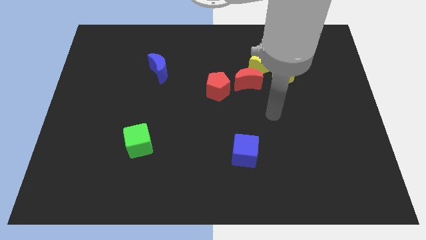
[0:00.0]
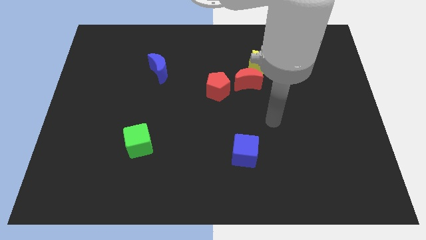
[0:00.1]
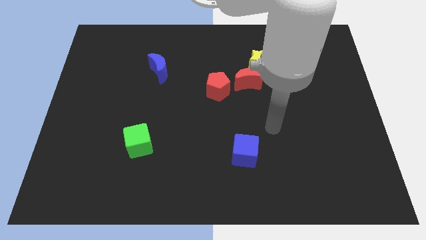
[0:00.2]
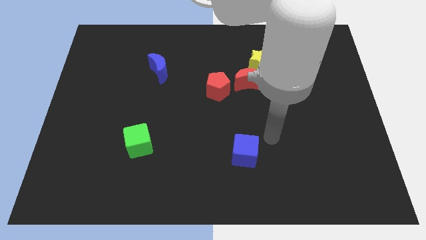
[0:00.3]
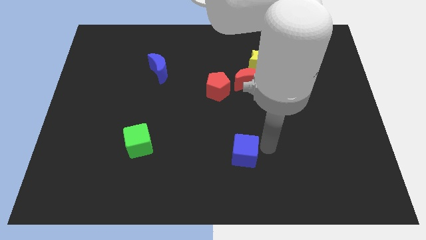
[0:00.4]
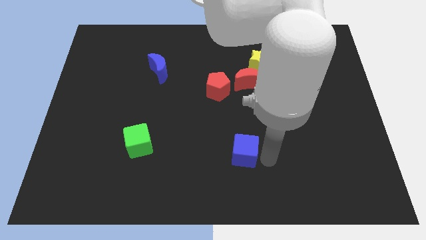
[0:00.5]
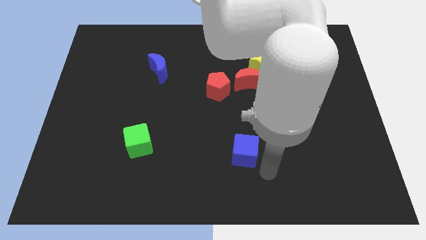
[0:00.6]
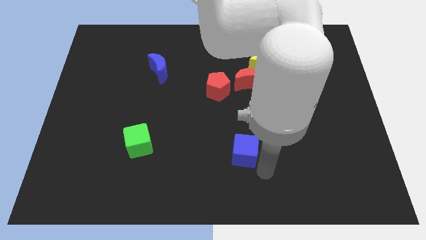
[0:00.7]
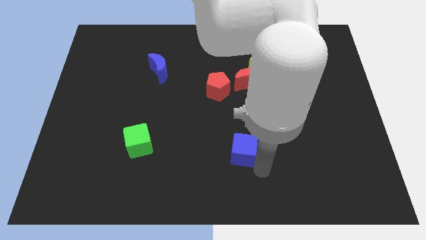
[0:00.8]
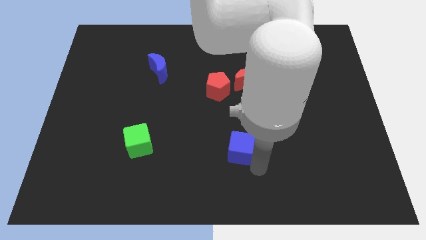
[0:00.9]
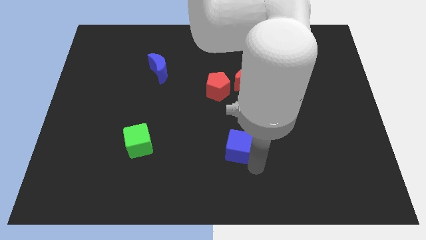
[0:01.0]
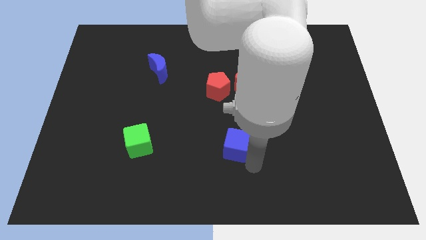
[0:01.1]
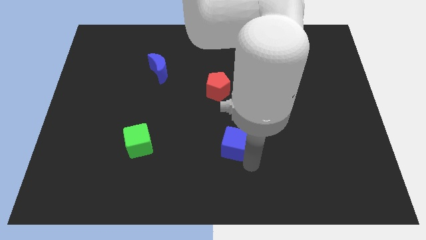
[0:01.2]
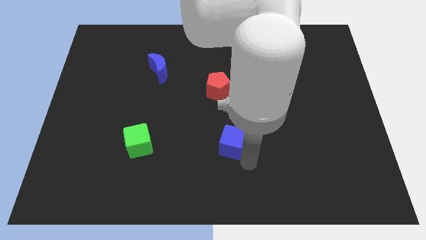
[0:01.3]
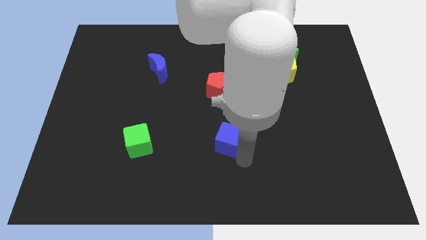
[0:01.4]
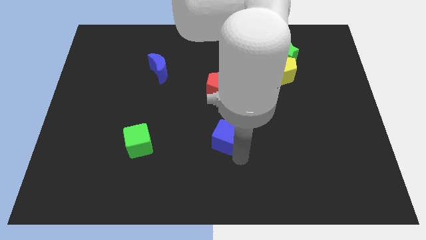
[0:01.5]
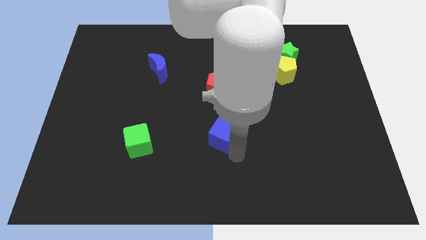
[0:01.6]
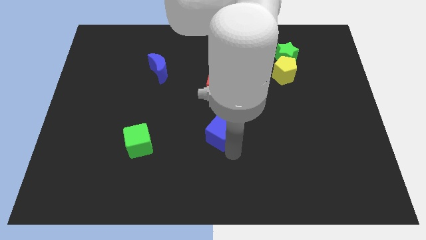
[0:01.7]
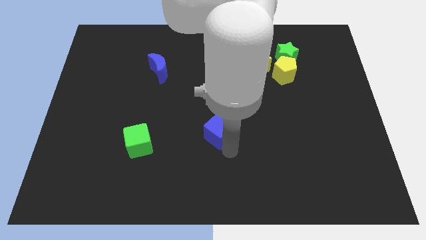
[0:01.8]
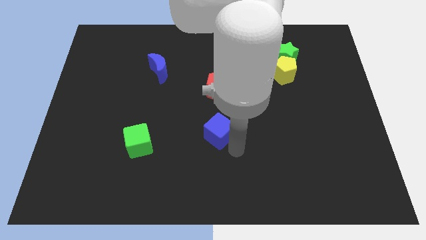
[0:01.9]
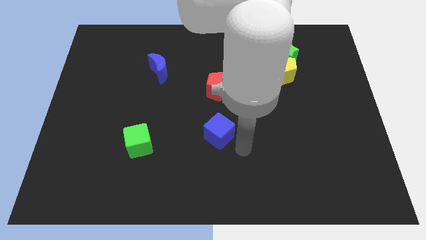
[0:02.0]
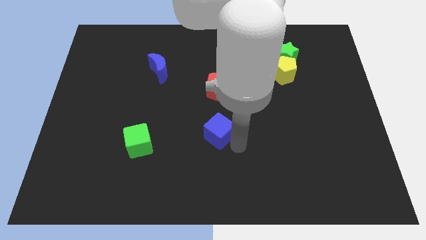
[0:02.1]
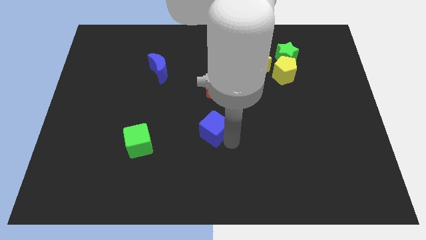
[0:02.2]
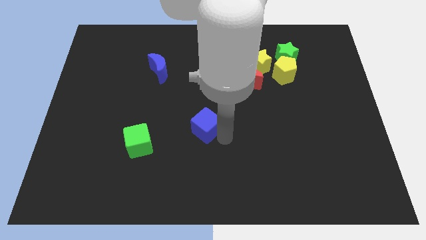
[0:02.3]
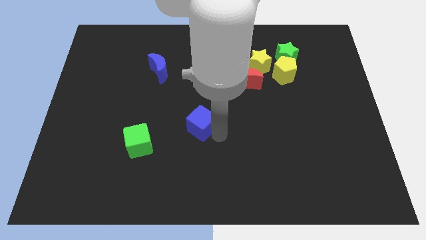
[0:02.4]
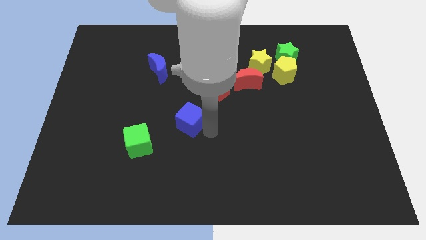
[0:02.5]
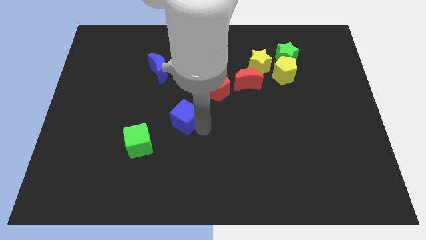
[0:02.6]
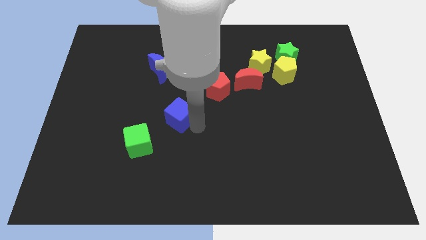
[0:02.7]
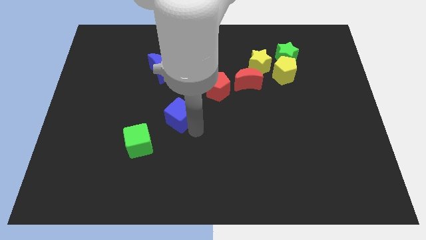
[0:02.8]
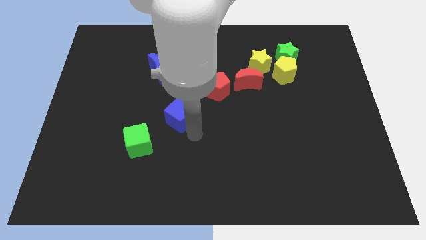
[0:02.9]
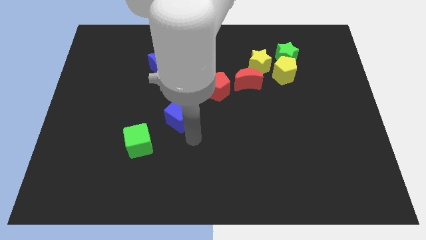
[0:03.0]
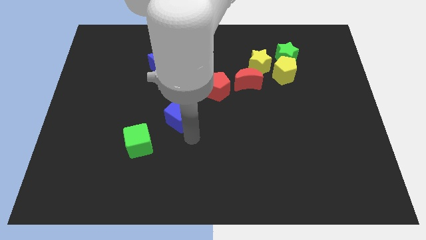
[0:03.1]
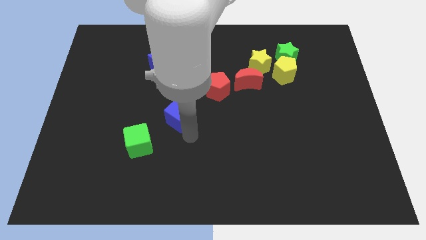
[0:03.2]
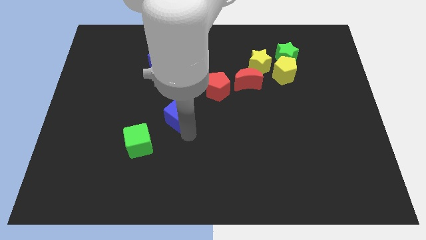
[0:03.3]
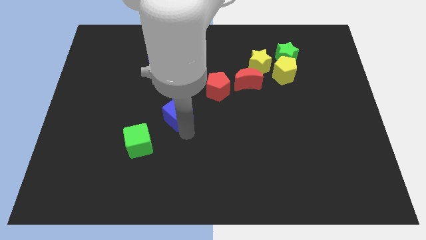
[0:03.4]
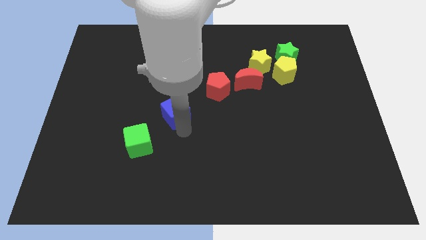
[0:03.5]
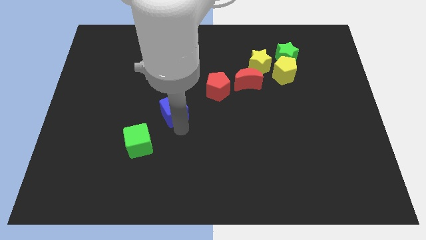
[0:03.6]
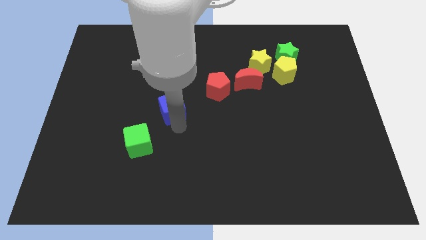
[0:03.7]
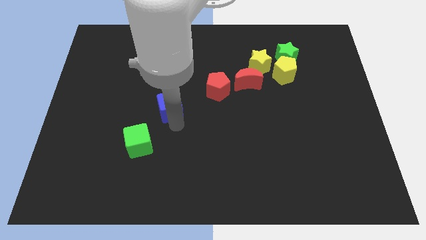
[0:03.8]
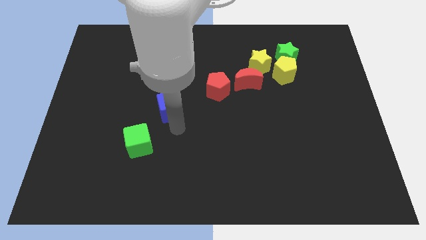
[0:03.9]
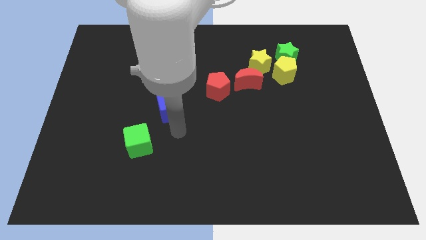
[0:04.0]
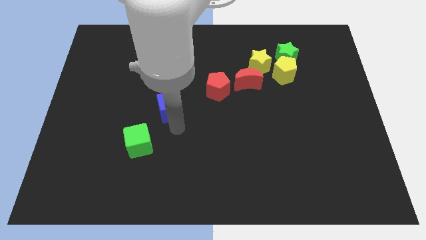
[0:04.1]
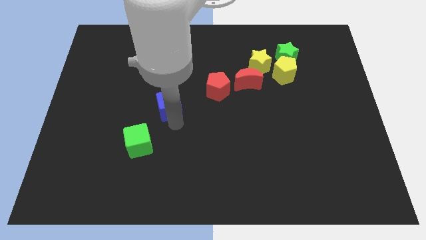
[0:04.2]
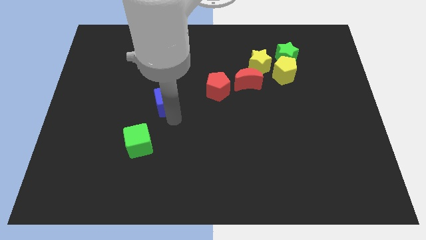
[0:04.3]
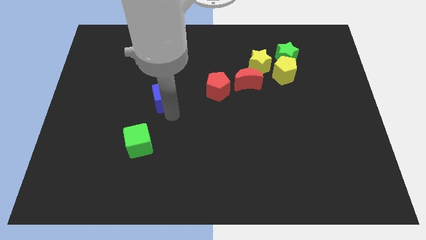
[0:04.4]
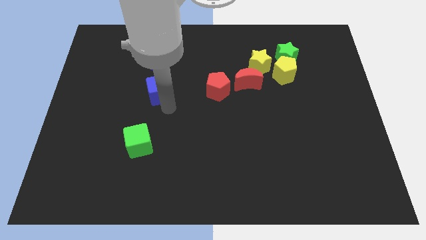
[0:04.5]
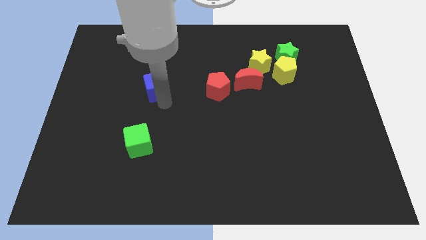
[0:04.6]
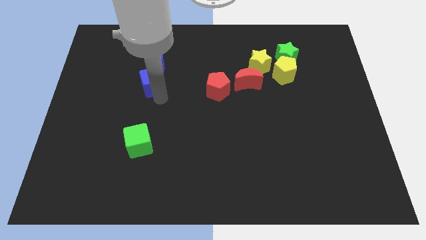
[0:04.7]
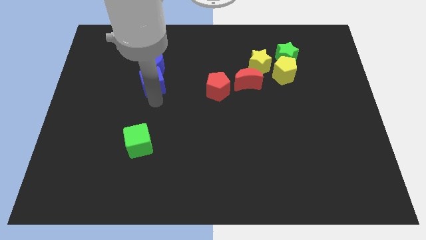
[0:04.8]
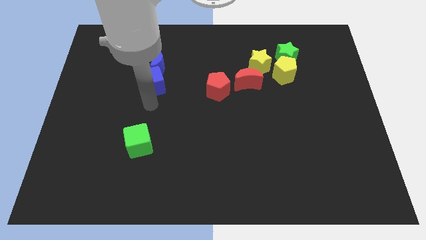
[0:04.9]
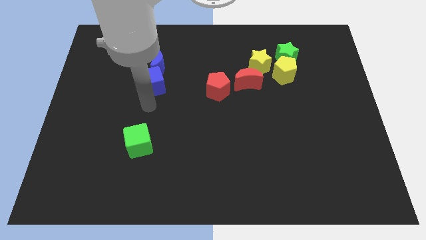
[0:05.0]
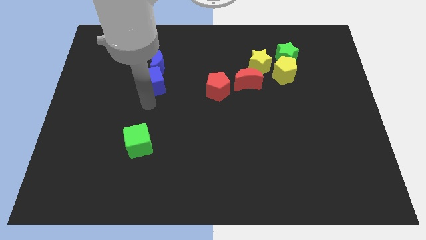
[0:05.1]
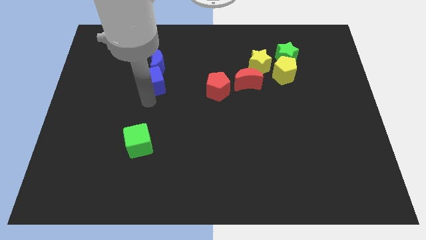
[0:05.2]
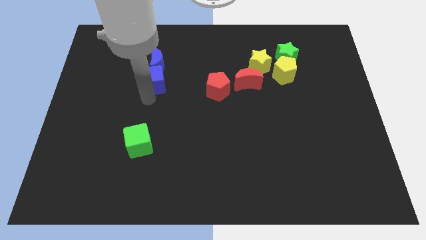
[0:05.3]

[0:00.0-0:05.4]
slide the blue cube towards the blue moon

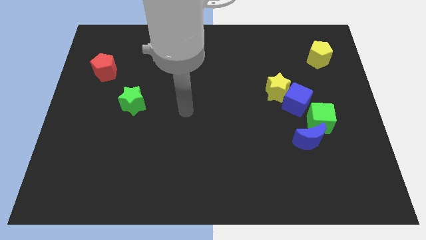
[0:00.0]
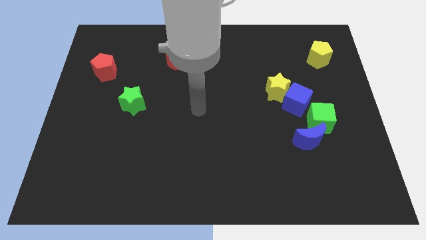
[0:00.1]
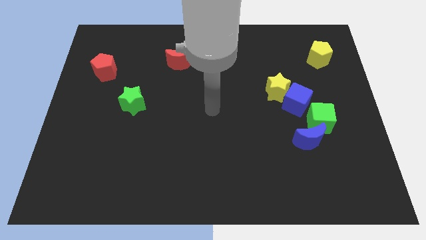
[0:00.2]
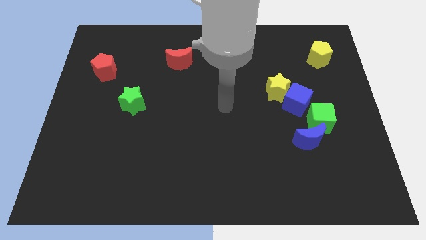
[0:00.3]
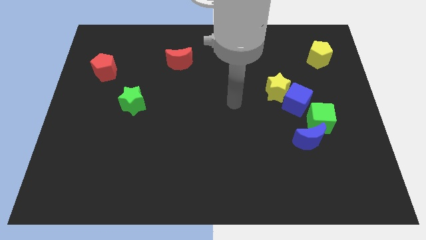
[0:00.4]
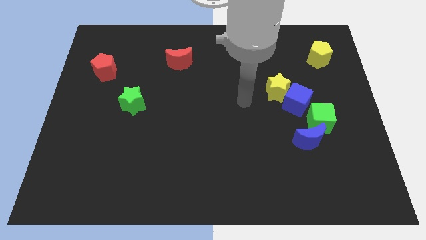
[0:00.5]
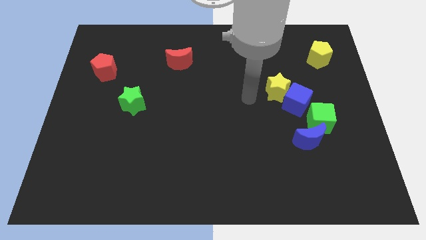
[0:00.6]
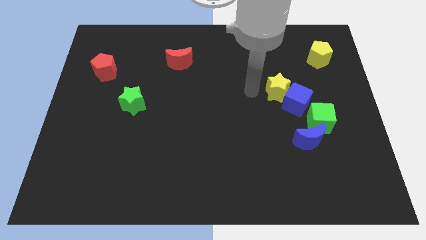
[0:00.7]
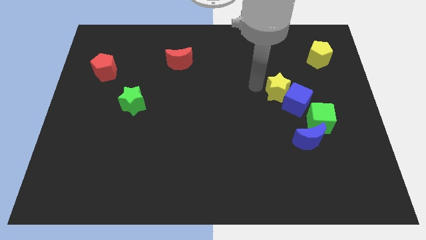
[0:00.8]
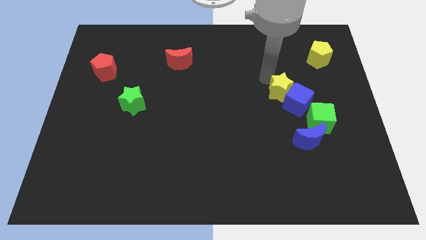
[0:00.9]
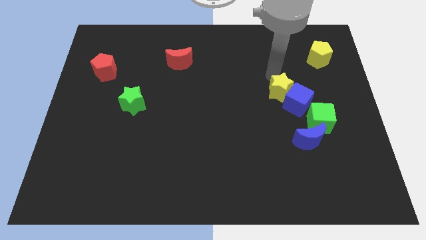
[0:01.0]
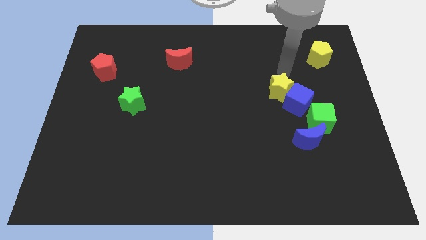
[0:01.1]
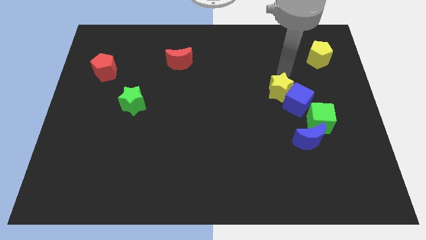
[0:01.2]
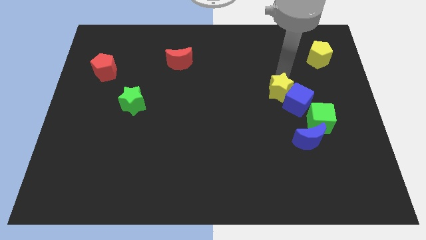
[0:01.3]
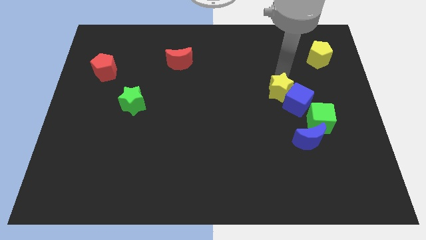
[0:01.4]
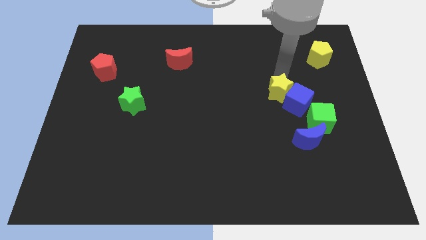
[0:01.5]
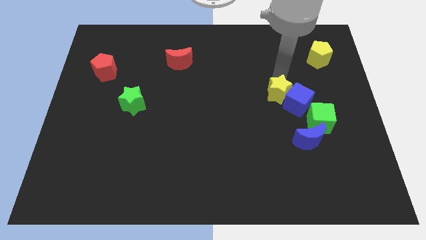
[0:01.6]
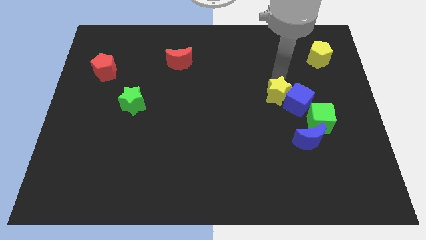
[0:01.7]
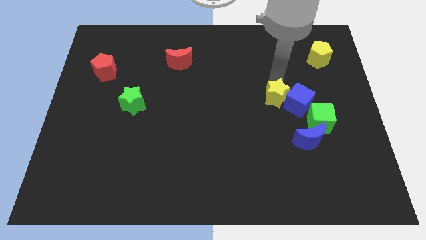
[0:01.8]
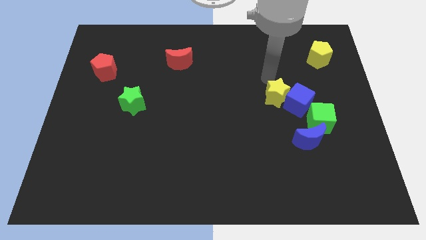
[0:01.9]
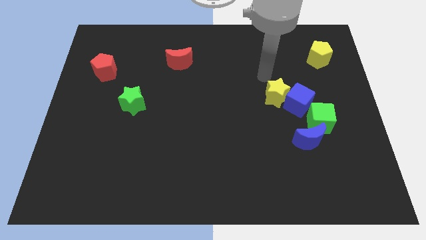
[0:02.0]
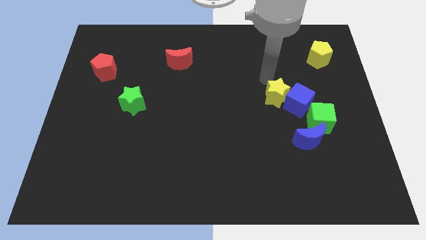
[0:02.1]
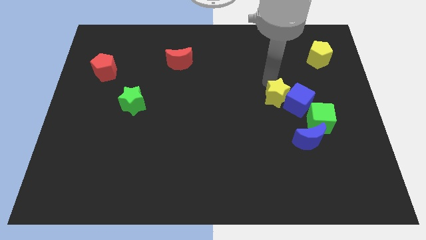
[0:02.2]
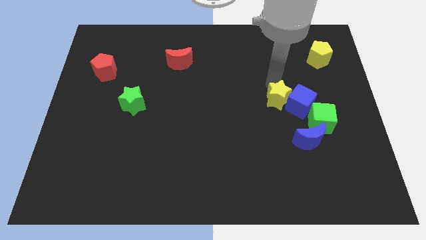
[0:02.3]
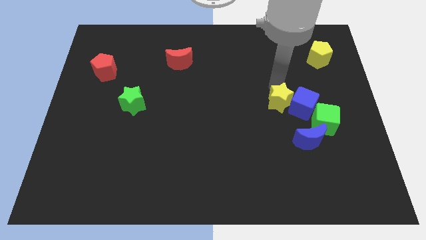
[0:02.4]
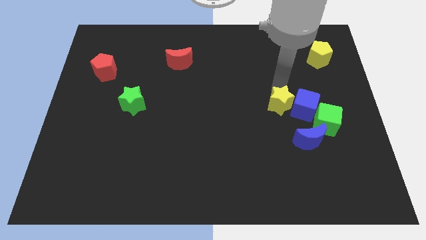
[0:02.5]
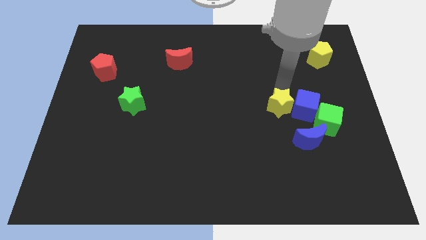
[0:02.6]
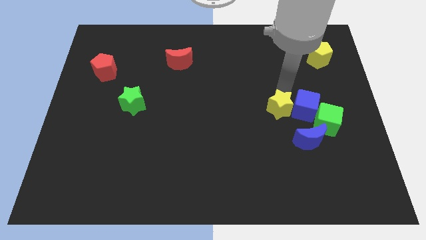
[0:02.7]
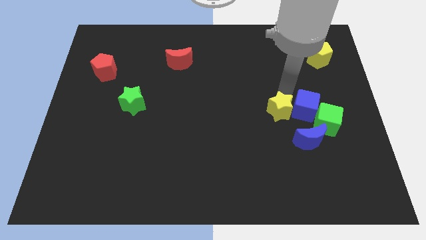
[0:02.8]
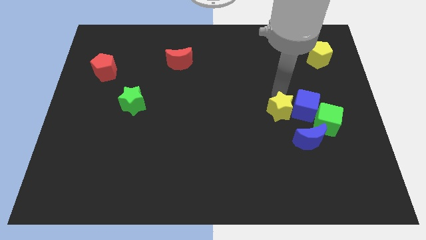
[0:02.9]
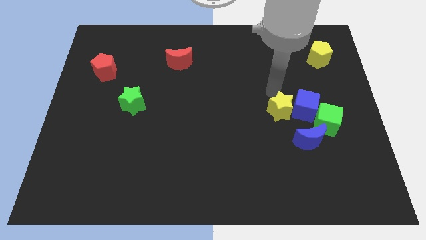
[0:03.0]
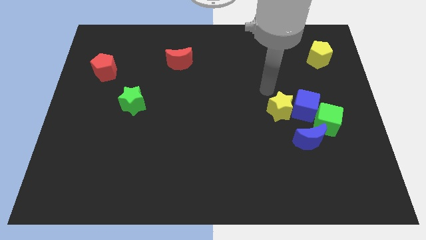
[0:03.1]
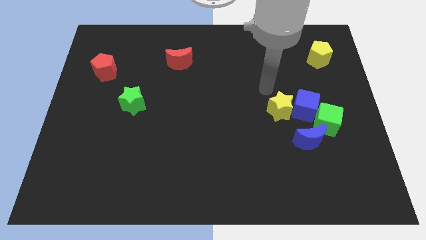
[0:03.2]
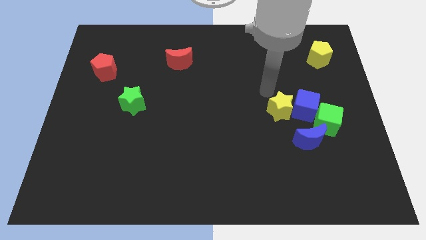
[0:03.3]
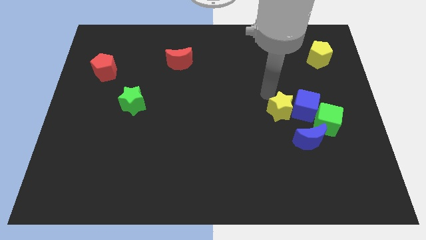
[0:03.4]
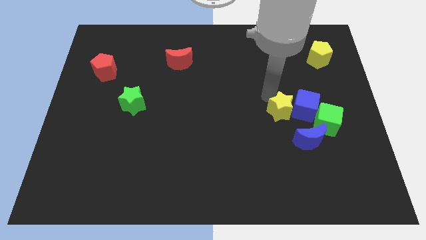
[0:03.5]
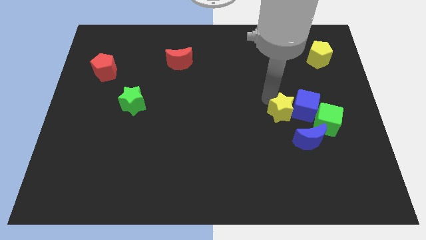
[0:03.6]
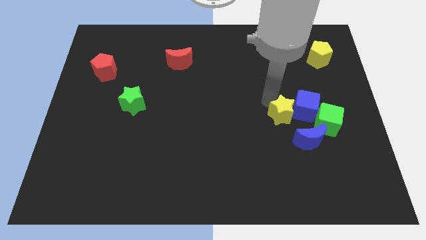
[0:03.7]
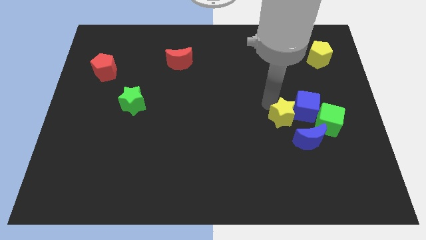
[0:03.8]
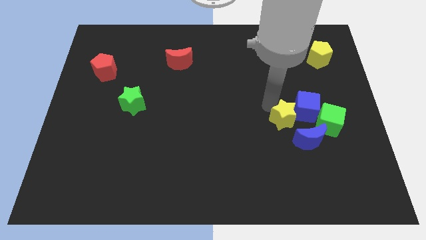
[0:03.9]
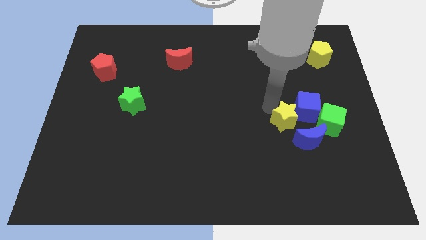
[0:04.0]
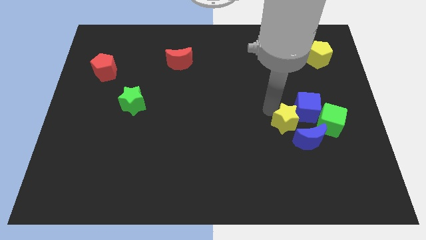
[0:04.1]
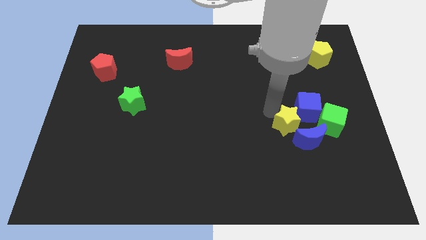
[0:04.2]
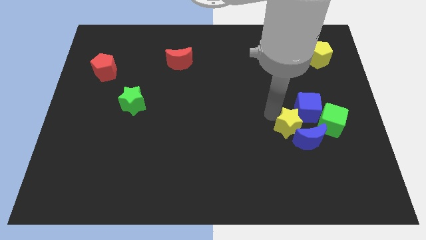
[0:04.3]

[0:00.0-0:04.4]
move the yellow star to the blue moon
